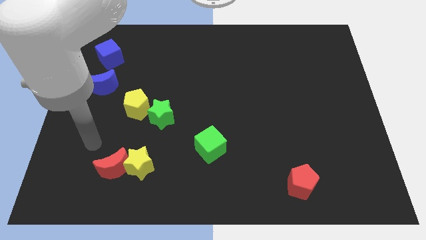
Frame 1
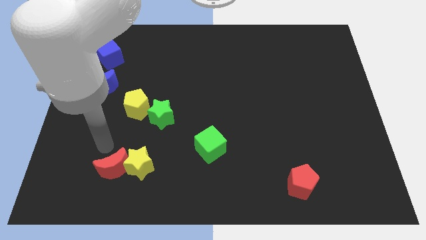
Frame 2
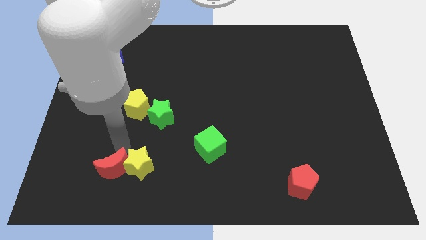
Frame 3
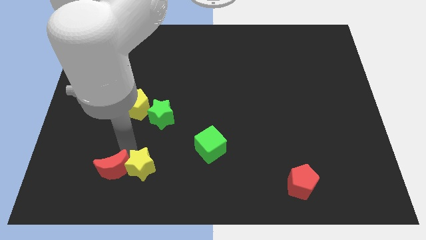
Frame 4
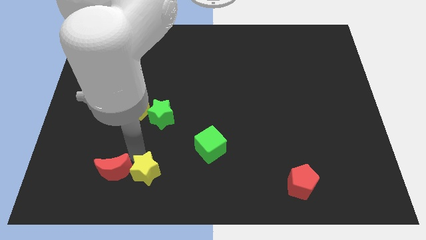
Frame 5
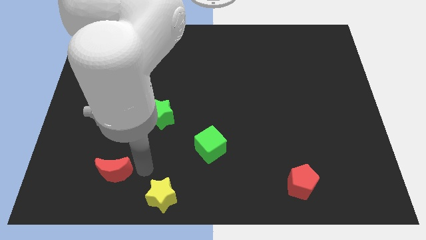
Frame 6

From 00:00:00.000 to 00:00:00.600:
separate the red moon from the yellow star

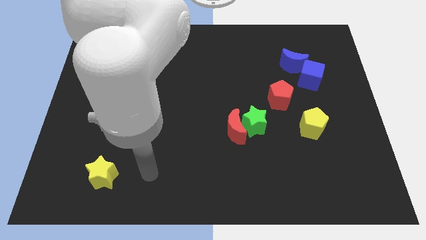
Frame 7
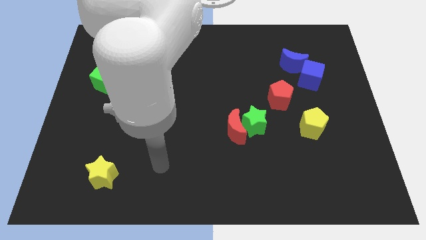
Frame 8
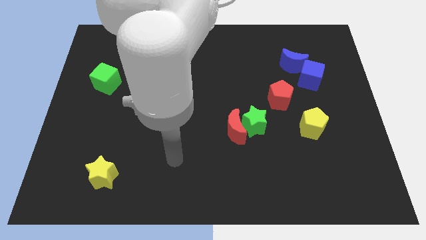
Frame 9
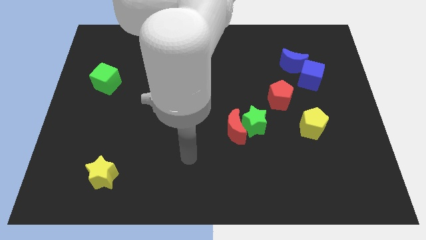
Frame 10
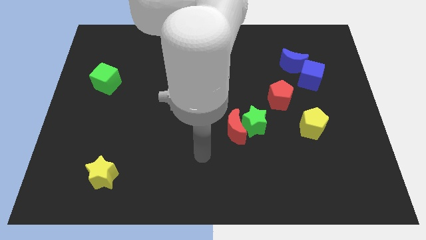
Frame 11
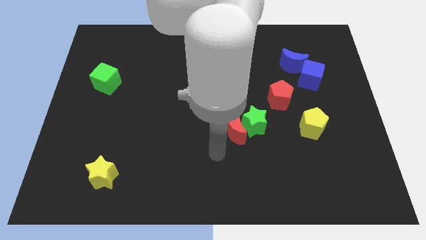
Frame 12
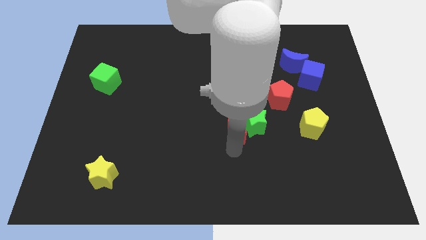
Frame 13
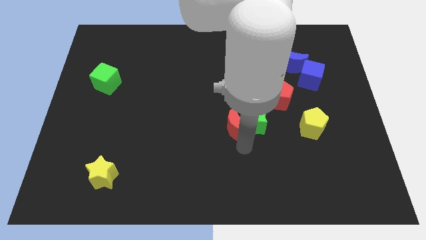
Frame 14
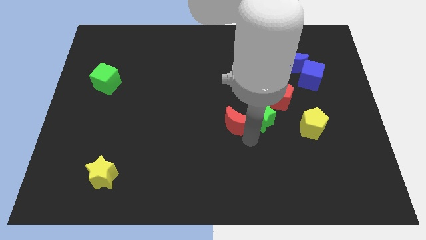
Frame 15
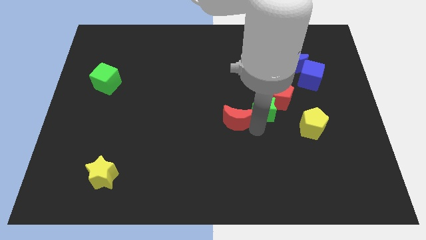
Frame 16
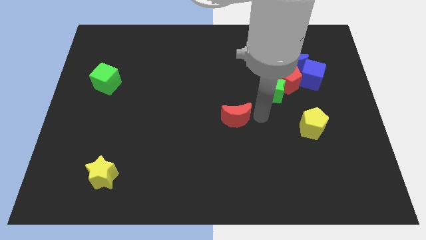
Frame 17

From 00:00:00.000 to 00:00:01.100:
separate the red moon from the green star

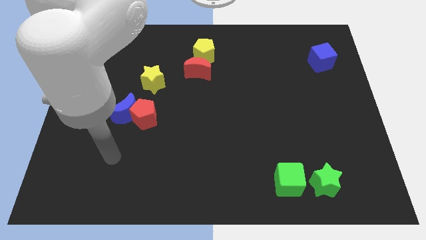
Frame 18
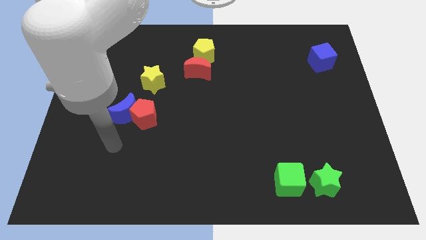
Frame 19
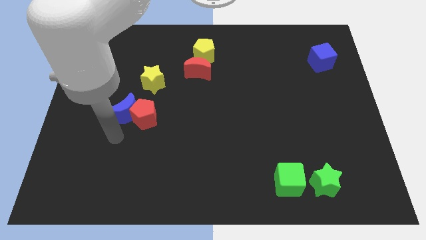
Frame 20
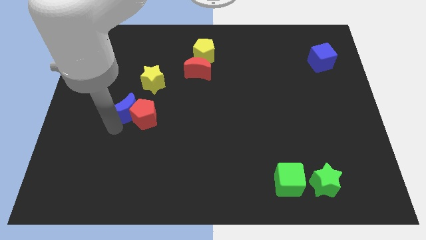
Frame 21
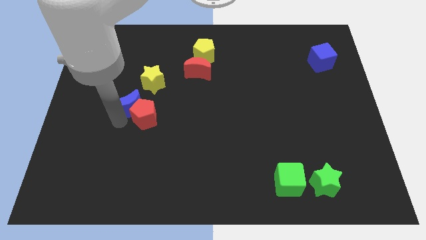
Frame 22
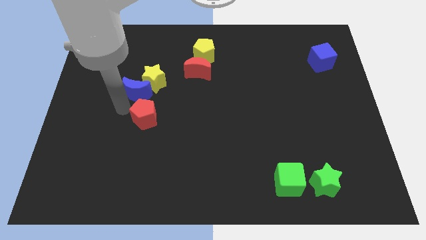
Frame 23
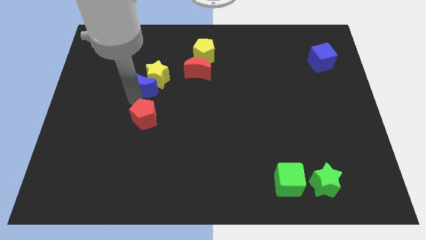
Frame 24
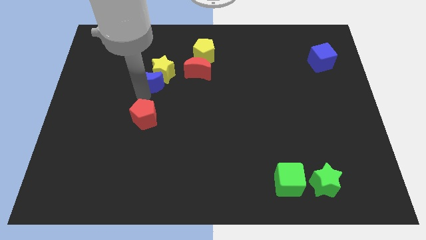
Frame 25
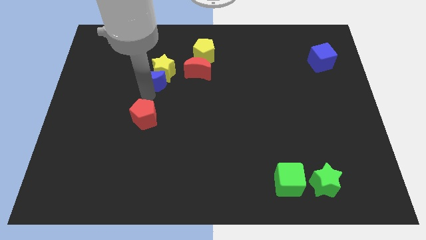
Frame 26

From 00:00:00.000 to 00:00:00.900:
move the red pentagon away from the blue moon

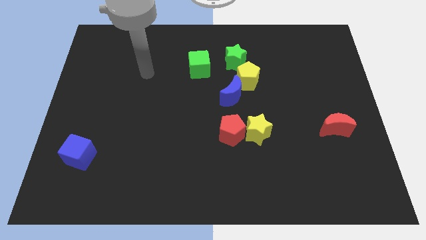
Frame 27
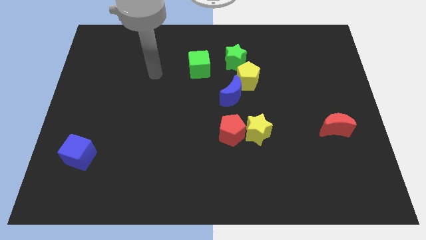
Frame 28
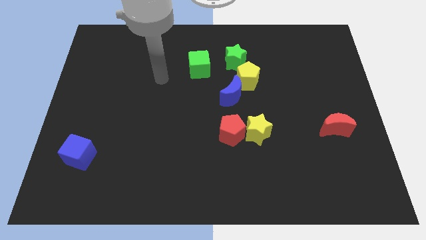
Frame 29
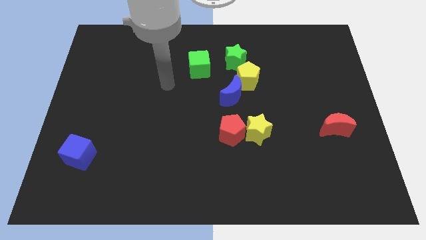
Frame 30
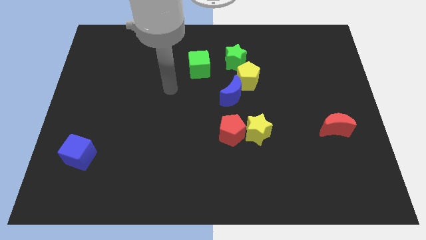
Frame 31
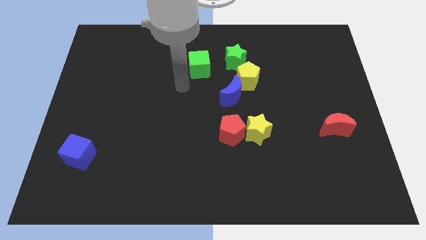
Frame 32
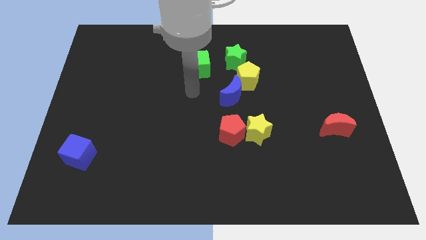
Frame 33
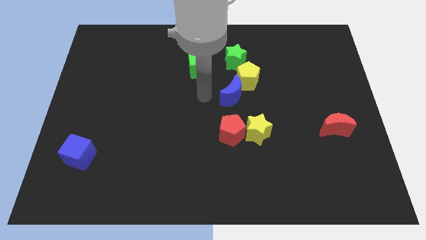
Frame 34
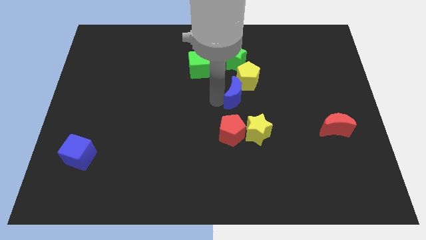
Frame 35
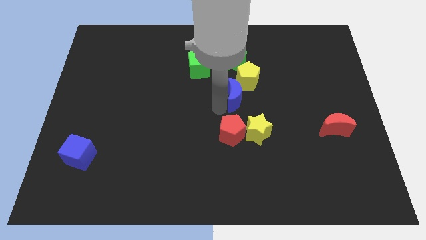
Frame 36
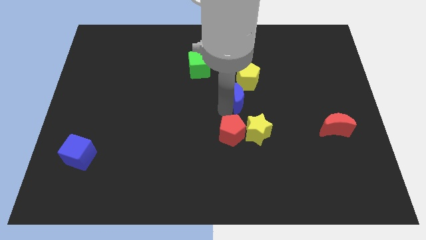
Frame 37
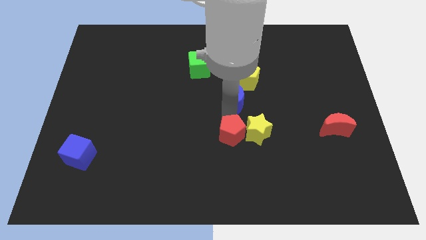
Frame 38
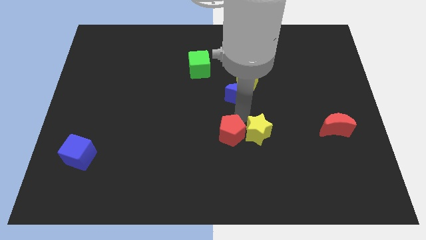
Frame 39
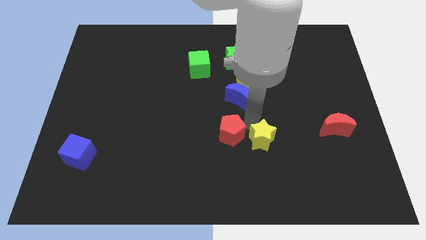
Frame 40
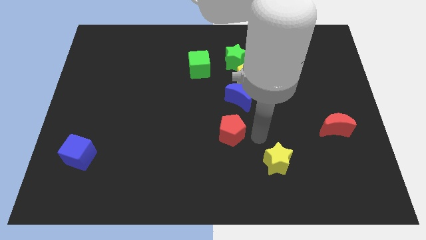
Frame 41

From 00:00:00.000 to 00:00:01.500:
move the red pentagon away from the yellow star

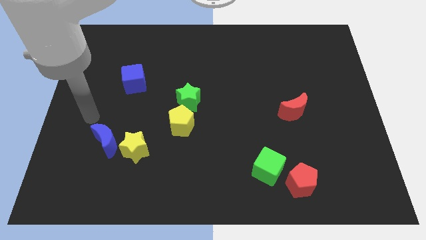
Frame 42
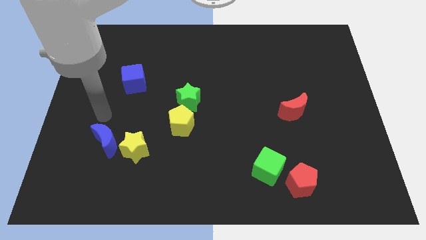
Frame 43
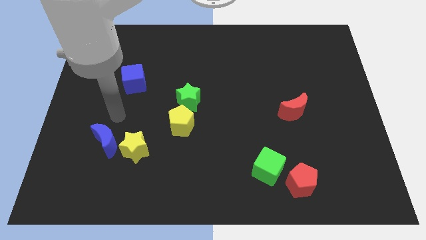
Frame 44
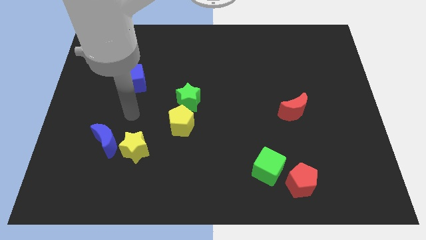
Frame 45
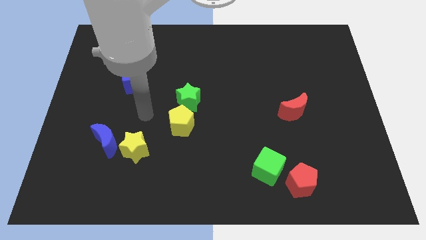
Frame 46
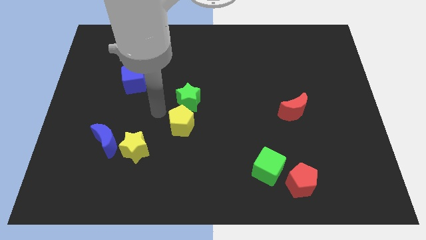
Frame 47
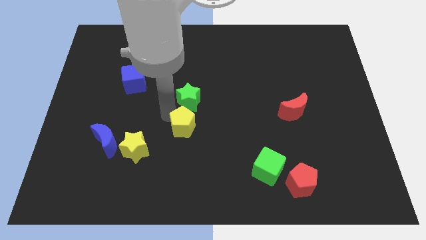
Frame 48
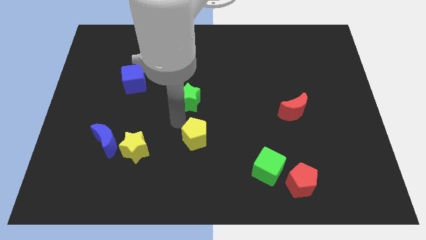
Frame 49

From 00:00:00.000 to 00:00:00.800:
pull the green star apart from the yellow pentagon

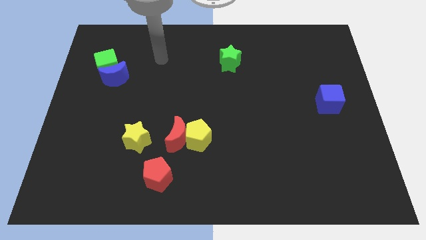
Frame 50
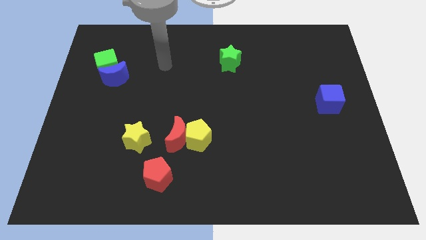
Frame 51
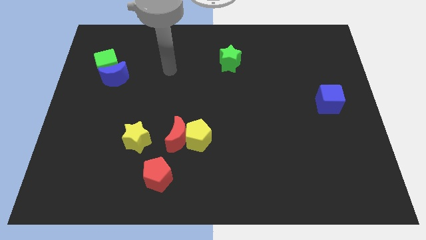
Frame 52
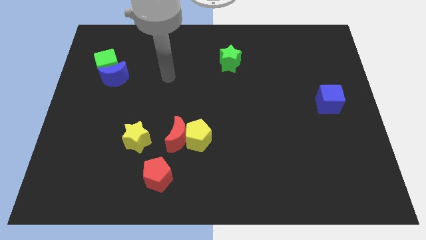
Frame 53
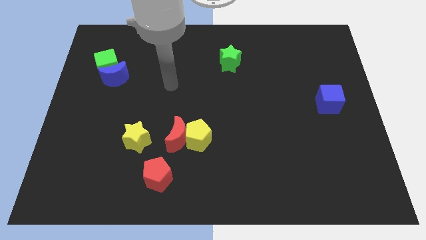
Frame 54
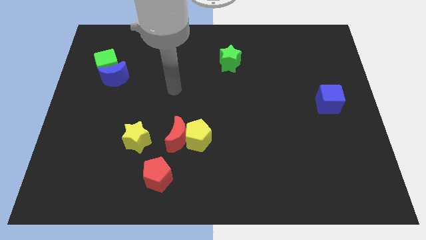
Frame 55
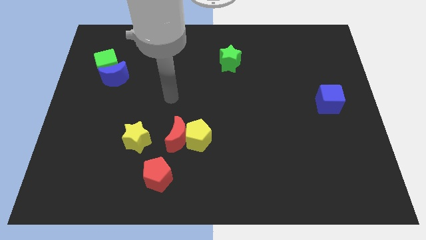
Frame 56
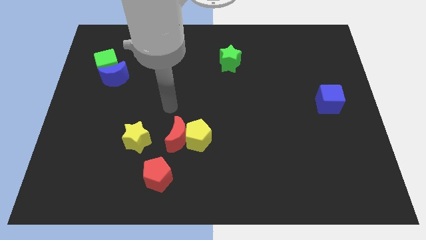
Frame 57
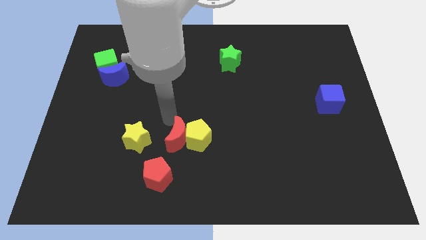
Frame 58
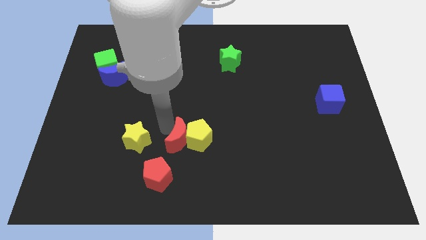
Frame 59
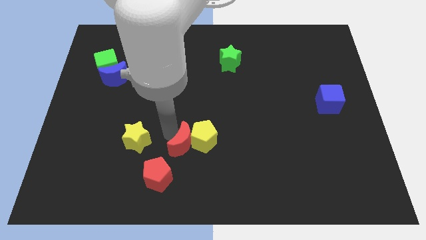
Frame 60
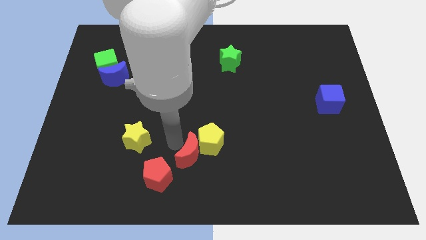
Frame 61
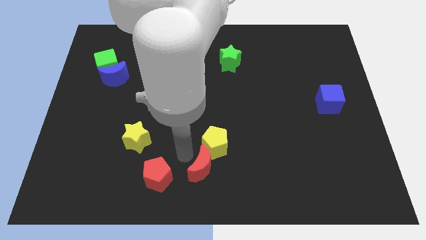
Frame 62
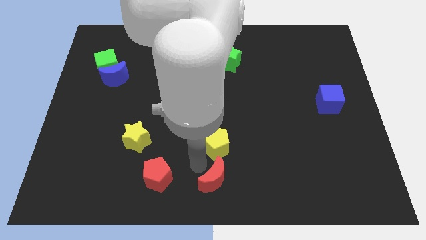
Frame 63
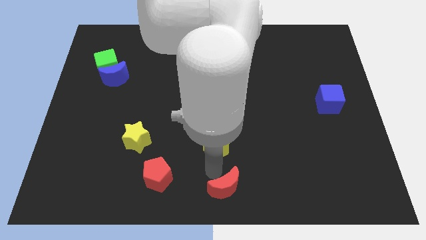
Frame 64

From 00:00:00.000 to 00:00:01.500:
pull the yellow pentagon apart from the red moon

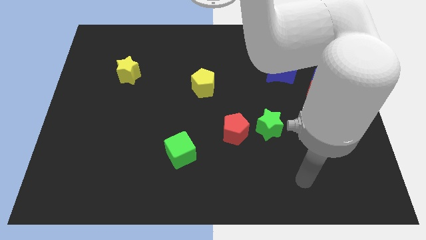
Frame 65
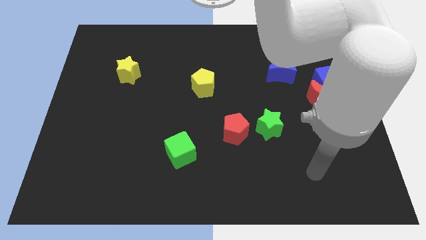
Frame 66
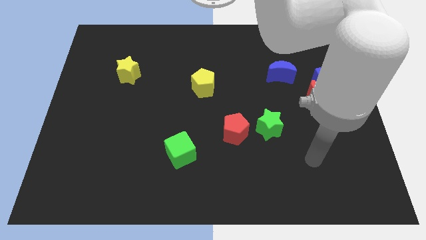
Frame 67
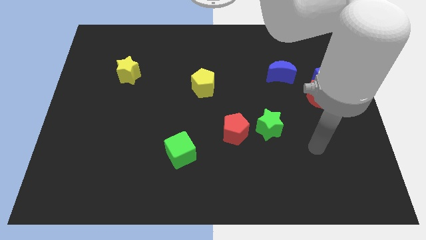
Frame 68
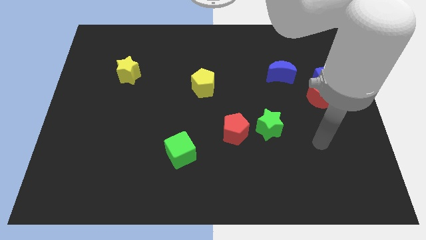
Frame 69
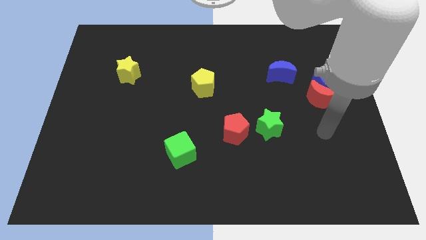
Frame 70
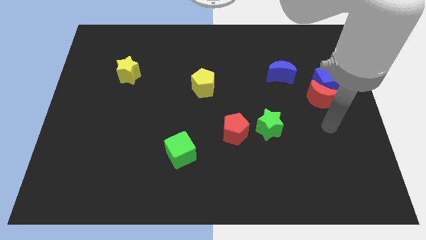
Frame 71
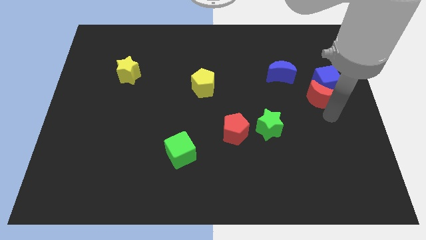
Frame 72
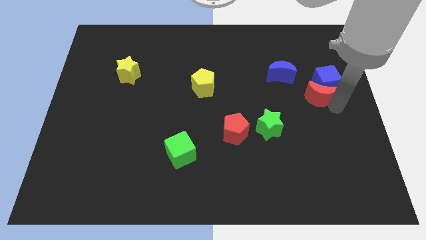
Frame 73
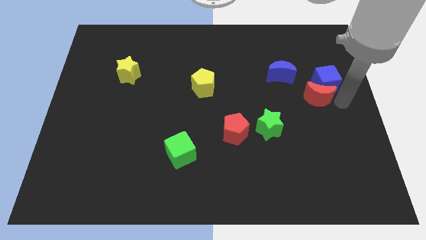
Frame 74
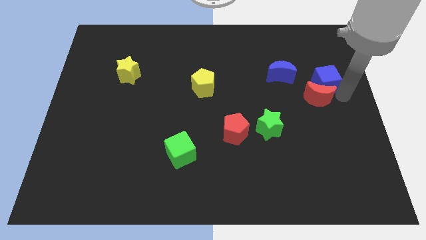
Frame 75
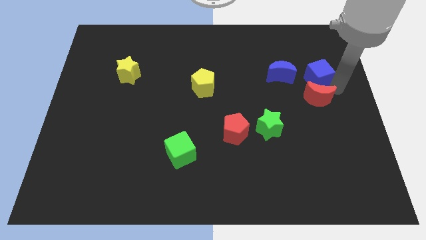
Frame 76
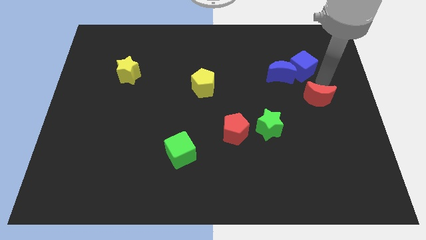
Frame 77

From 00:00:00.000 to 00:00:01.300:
move the red moon away from the blue cube

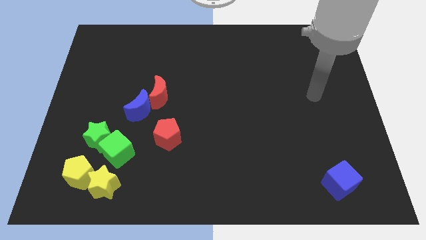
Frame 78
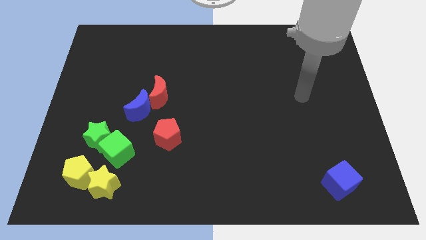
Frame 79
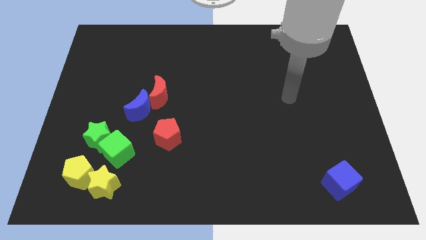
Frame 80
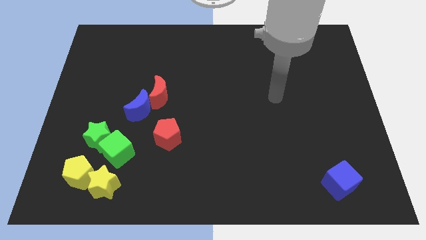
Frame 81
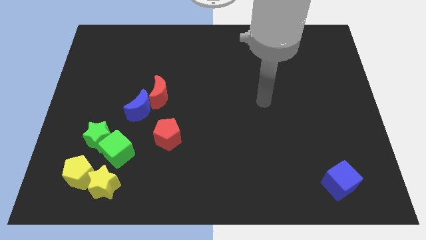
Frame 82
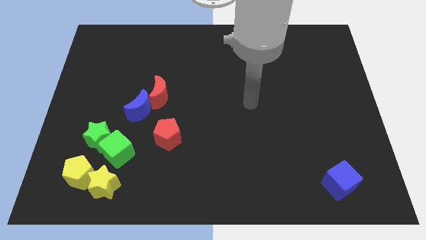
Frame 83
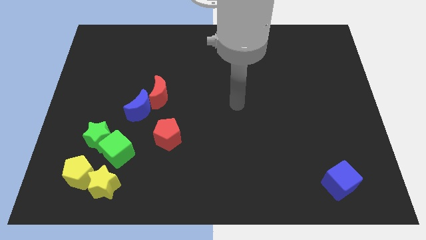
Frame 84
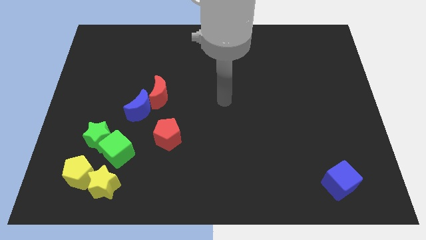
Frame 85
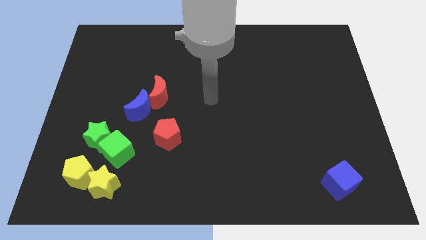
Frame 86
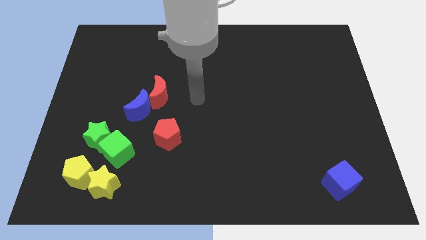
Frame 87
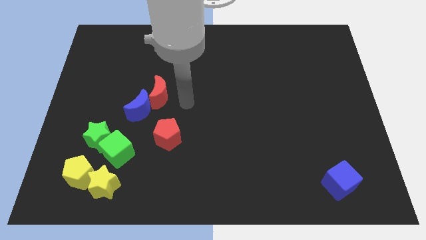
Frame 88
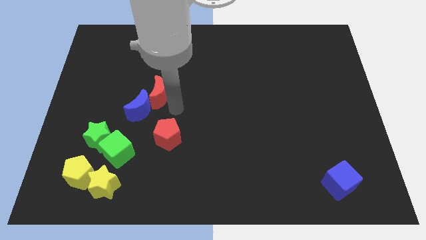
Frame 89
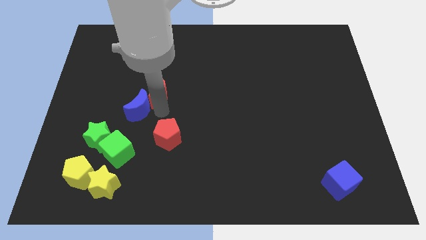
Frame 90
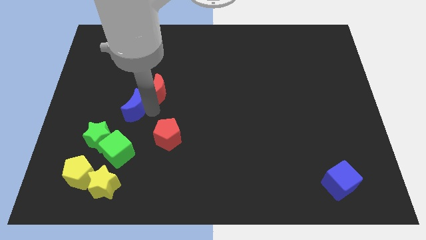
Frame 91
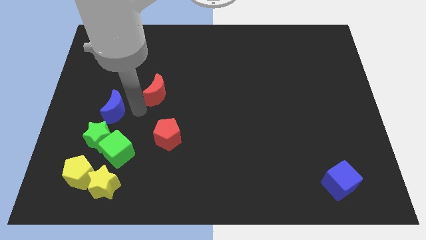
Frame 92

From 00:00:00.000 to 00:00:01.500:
separate the red moon from the blue moon

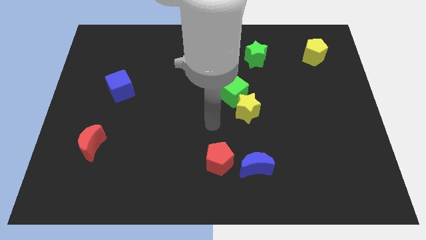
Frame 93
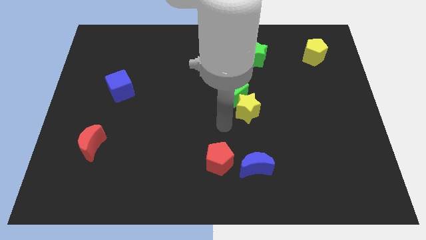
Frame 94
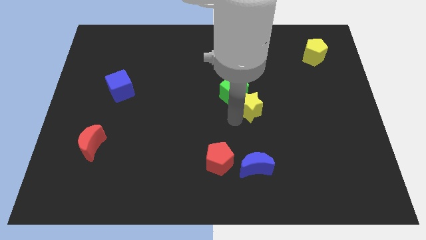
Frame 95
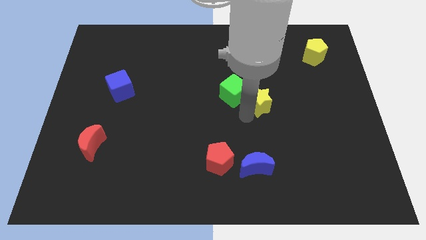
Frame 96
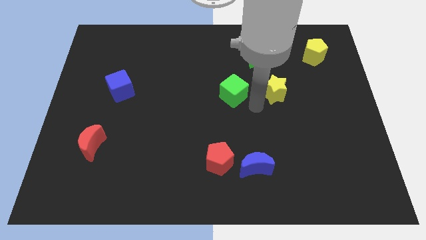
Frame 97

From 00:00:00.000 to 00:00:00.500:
move the green cube away from the yellow star
